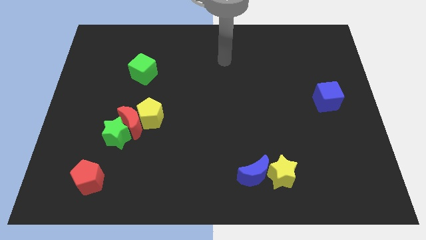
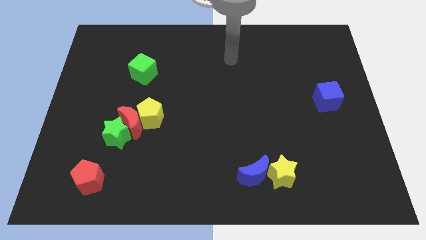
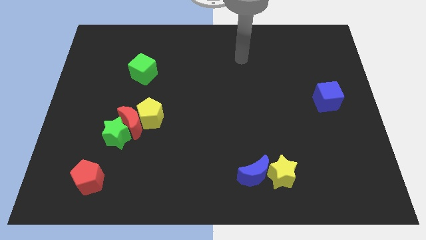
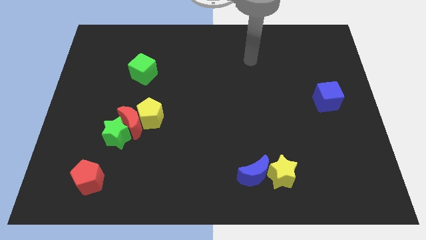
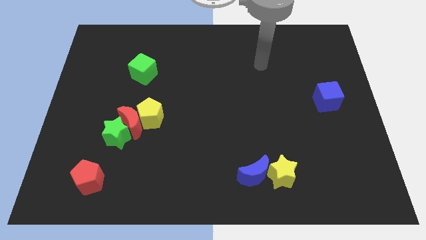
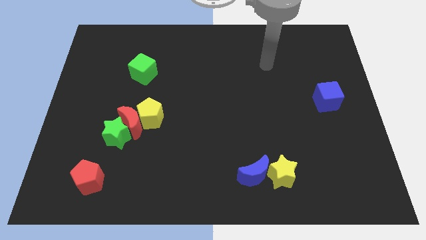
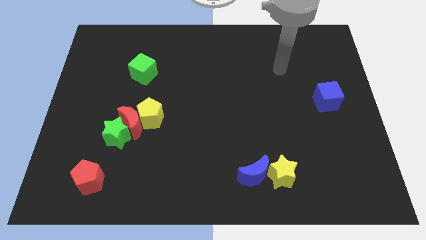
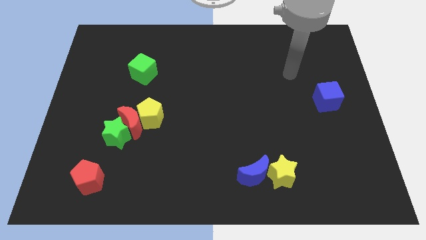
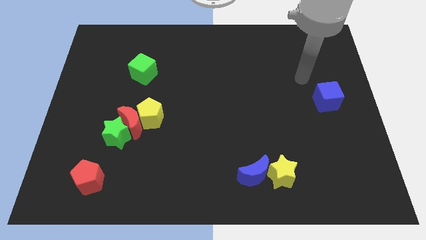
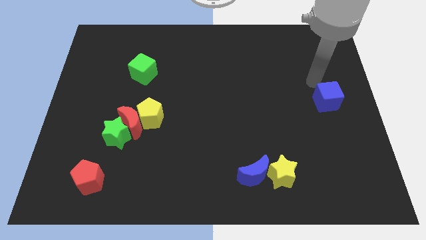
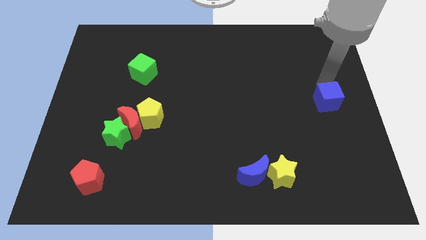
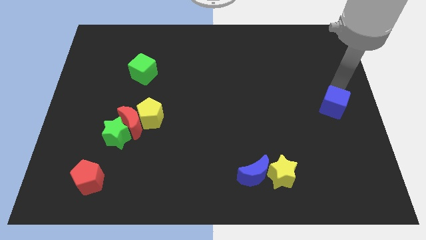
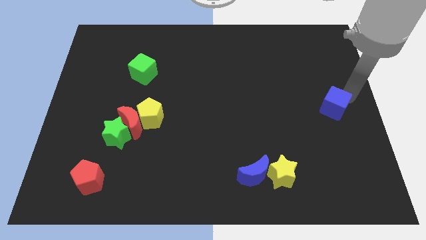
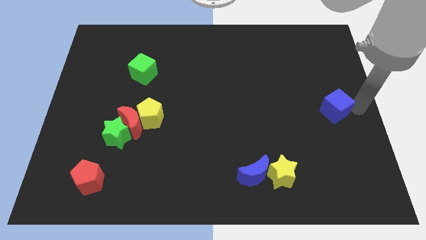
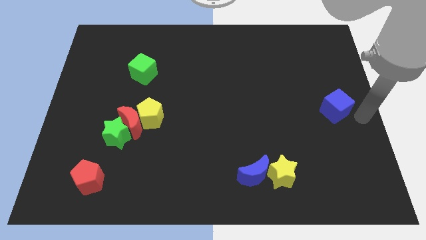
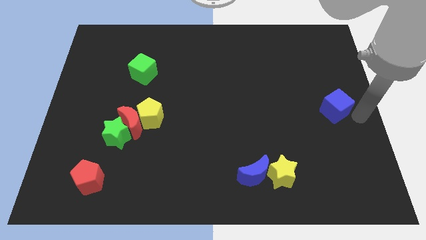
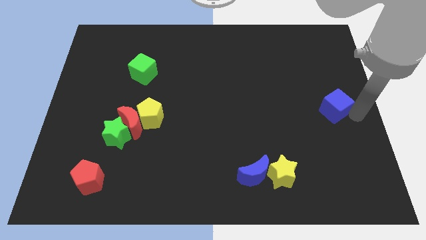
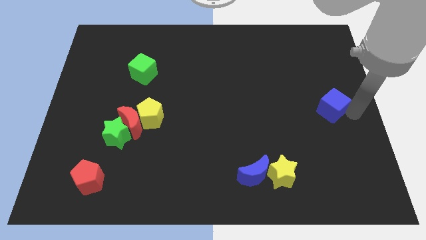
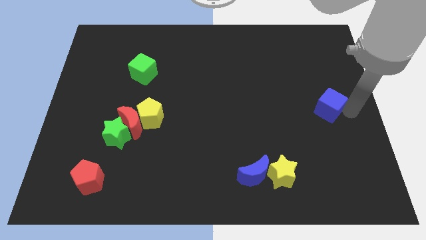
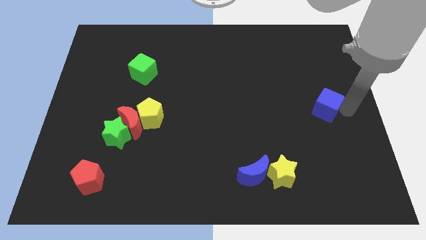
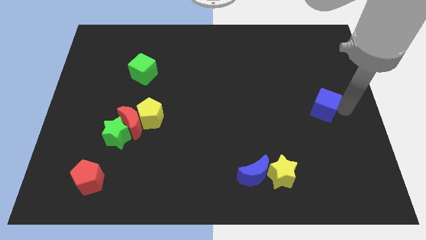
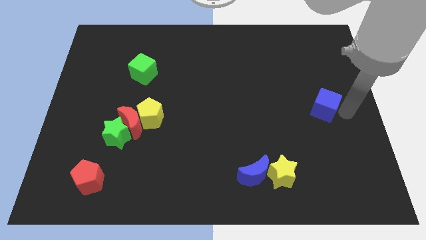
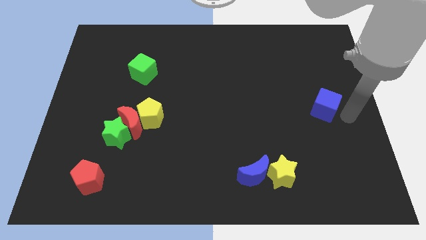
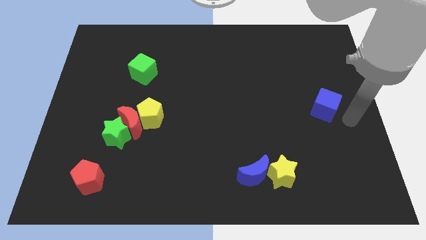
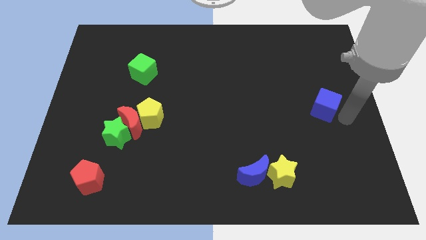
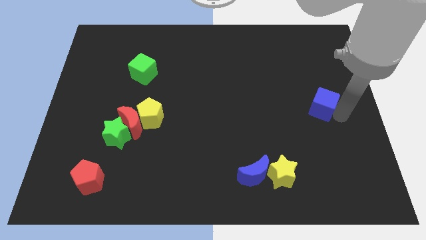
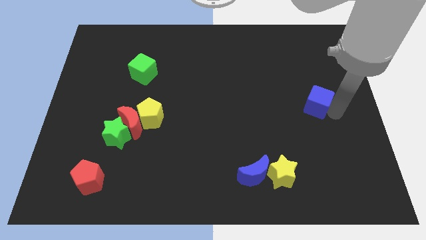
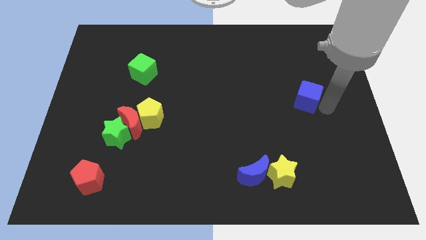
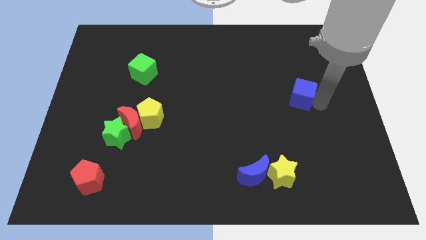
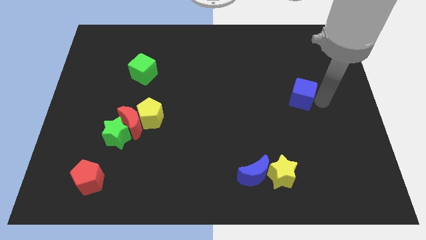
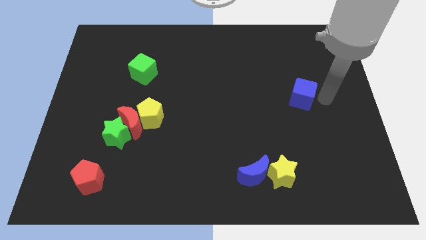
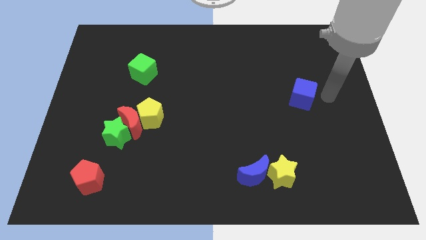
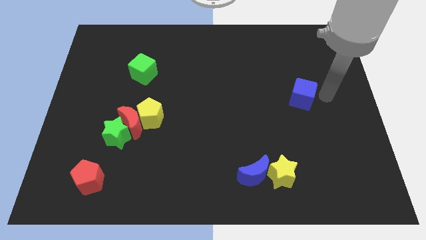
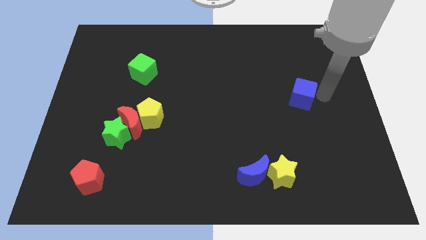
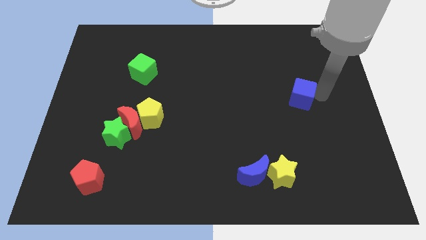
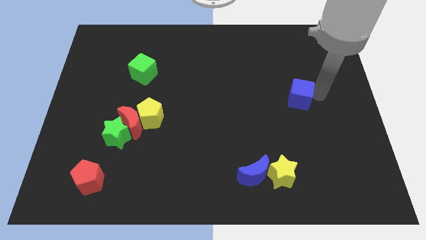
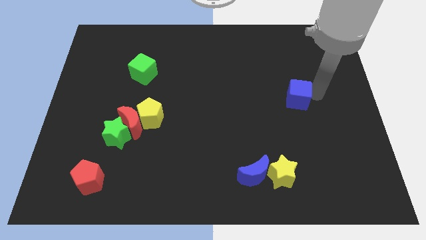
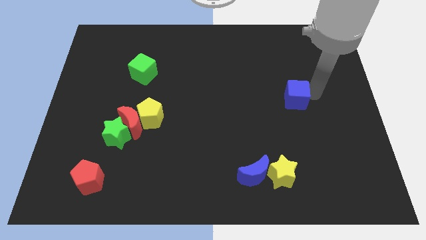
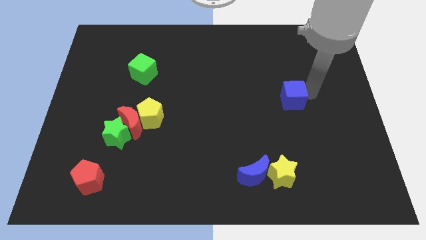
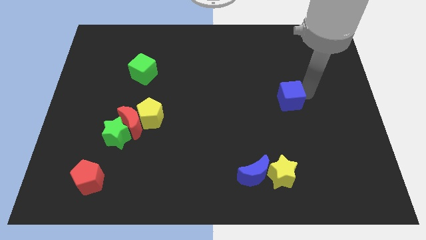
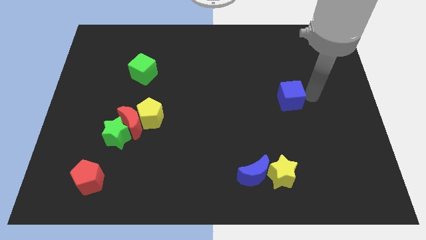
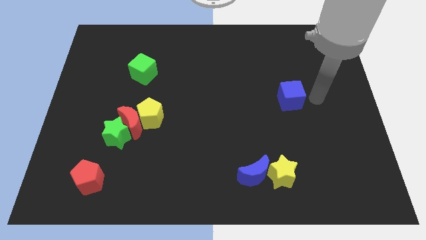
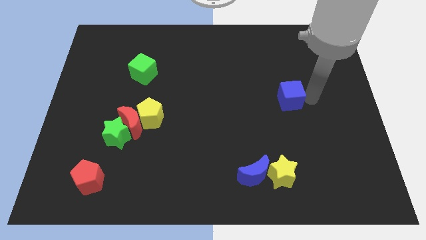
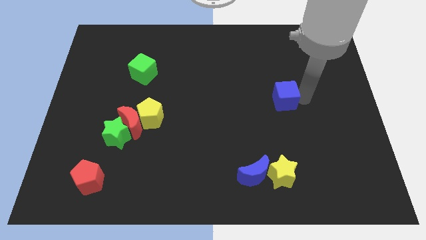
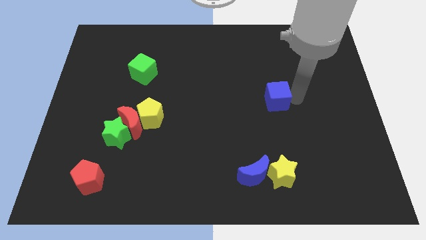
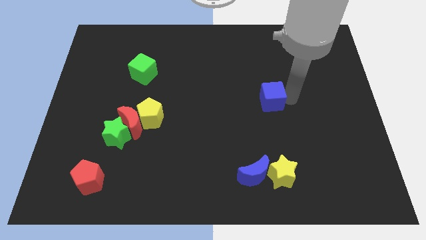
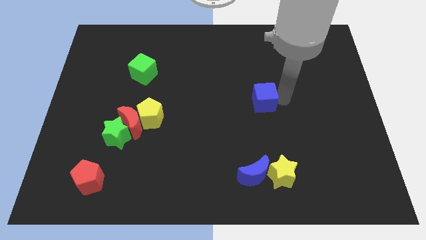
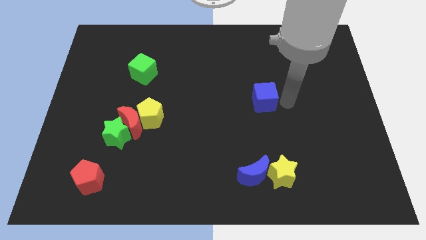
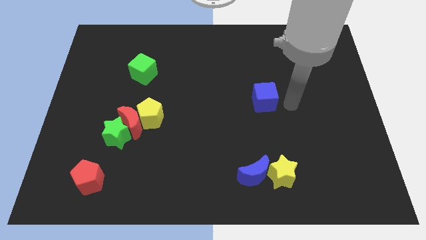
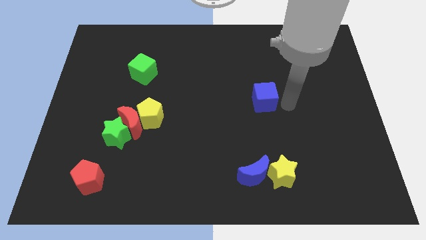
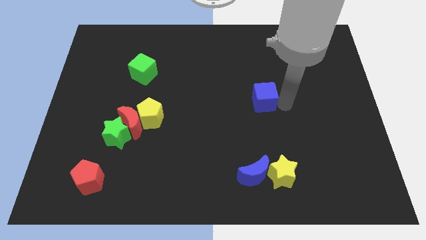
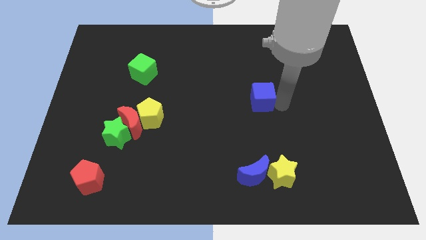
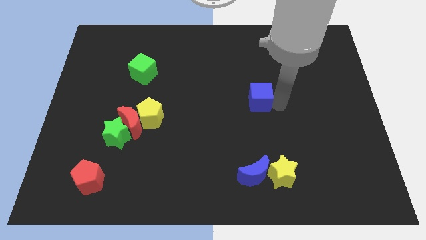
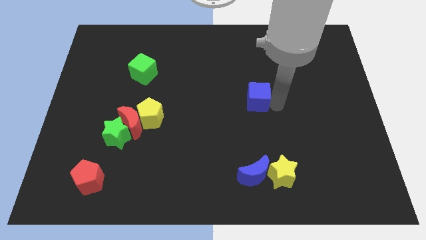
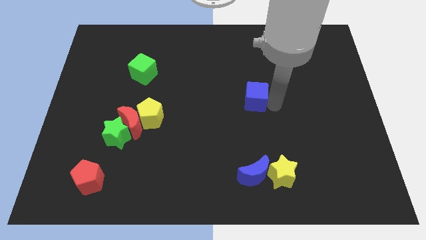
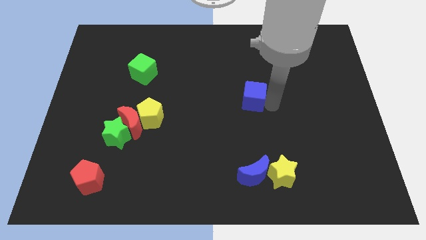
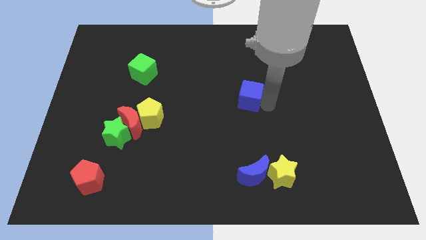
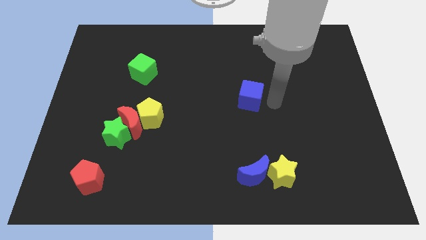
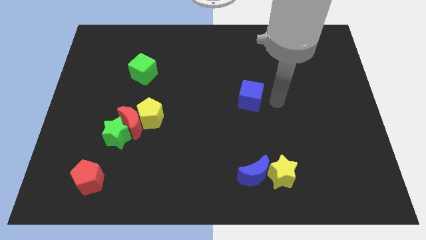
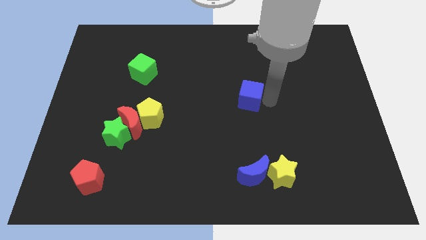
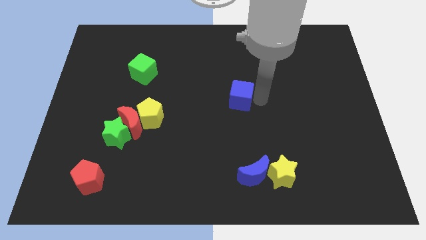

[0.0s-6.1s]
push the blue cube left

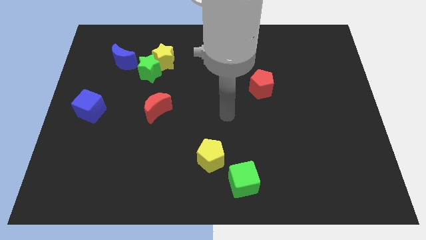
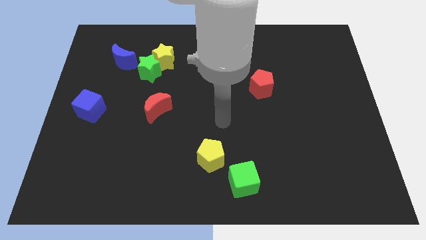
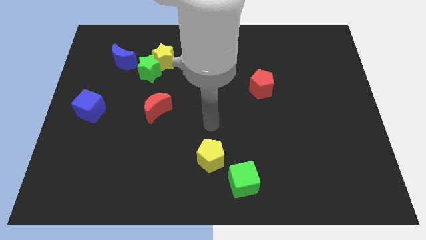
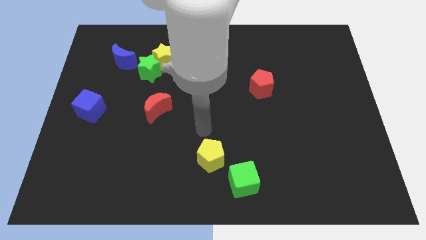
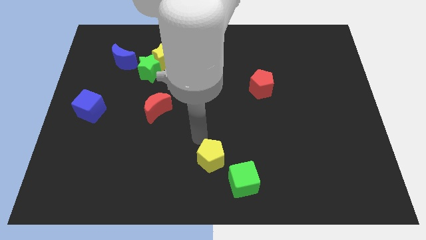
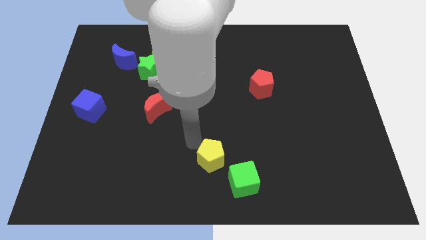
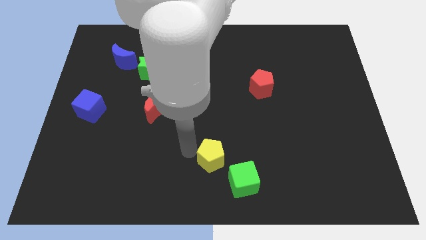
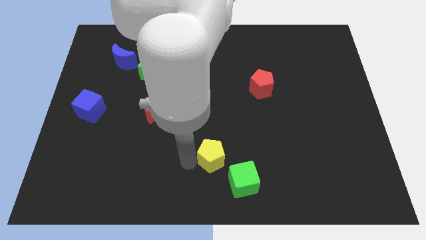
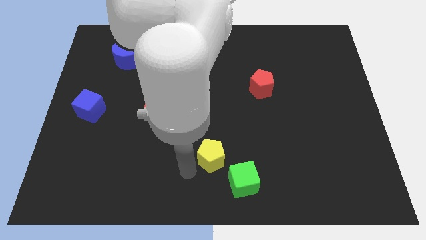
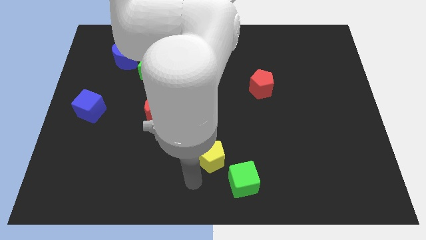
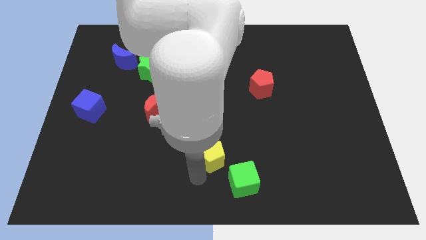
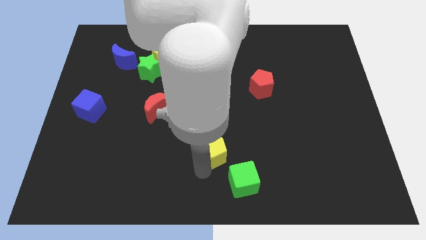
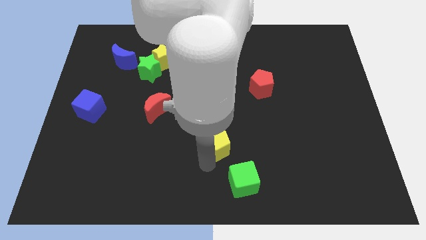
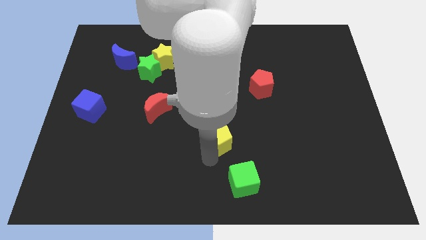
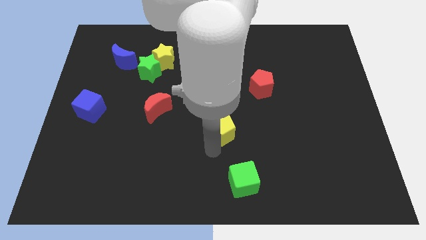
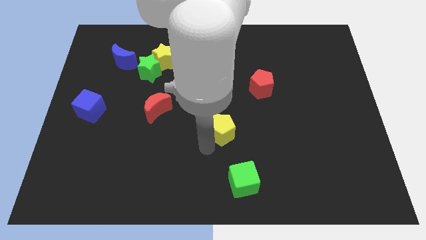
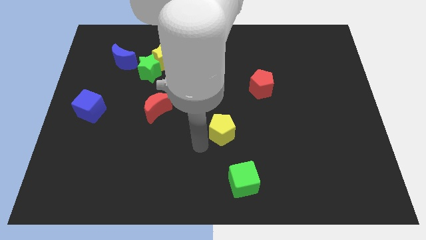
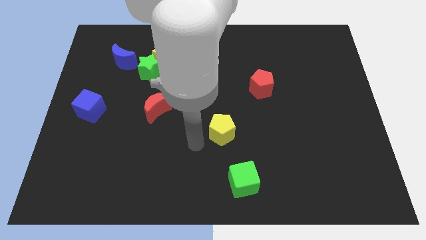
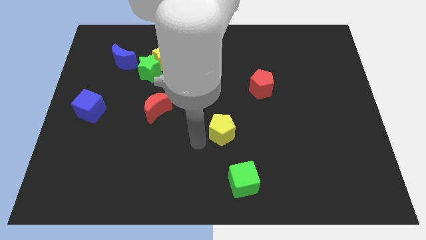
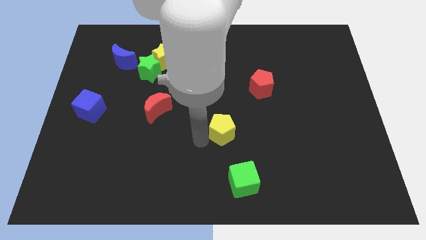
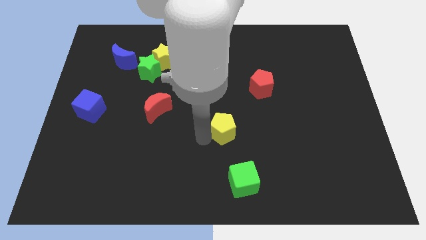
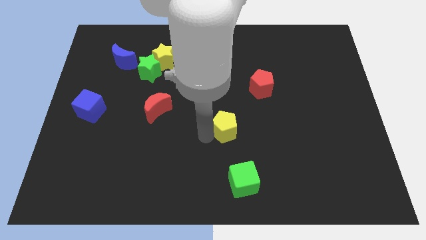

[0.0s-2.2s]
move the yellow pentagon slightly upwards and to the right
